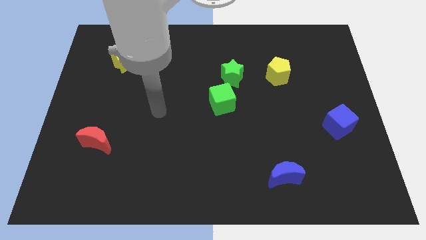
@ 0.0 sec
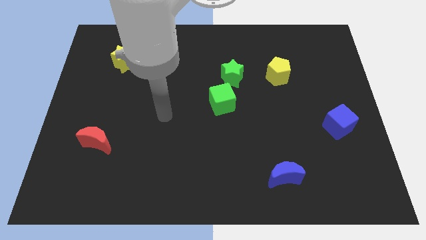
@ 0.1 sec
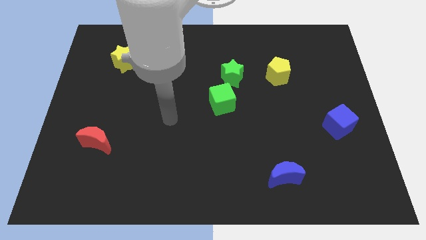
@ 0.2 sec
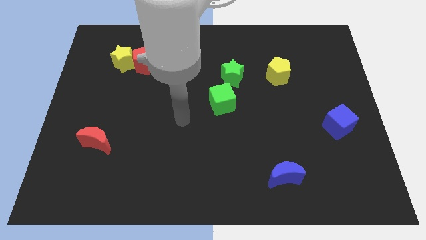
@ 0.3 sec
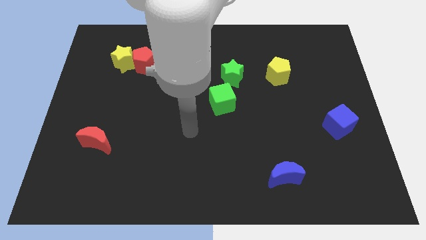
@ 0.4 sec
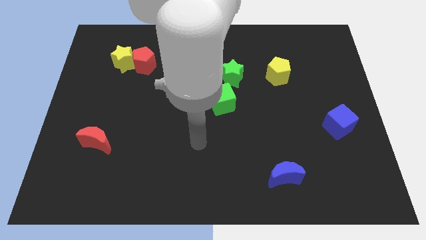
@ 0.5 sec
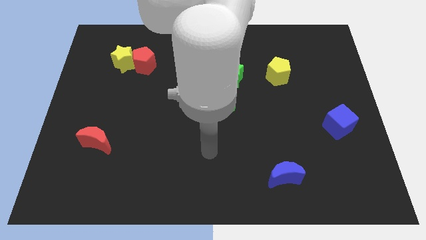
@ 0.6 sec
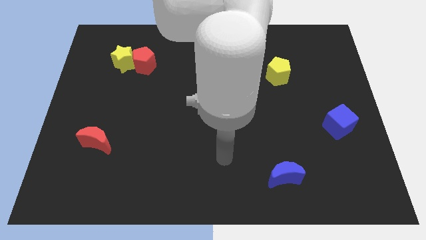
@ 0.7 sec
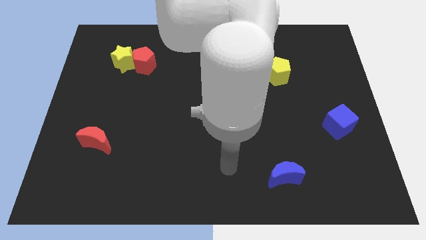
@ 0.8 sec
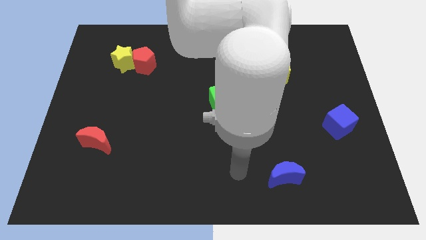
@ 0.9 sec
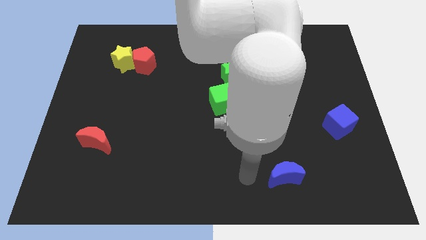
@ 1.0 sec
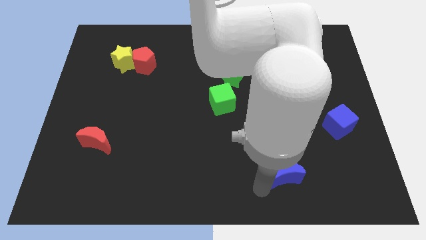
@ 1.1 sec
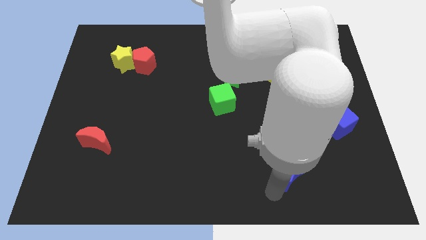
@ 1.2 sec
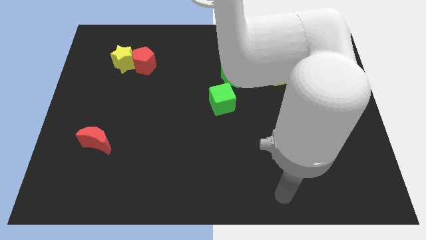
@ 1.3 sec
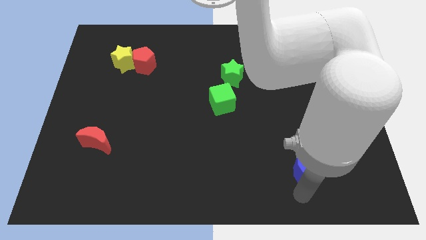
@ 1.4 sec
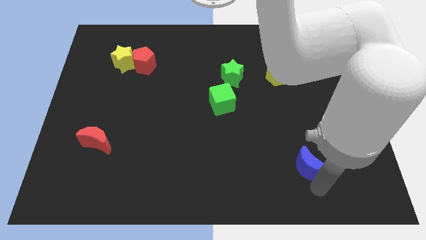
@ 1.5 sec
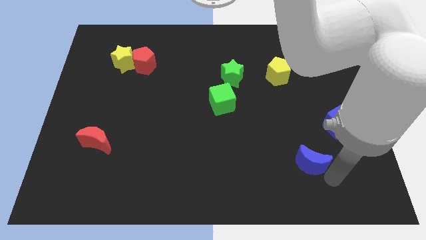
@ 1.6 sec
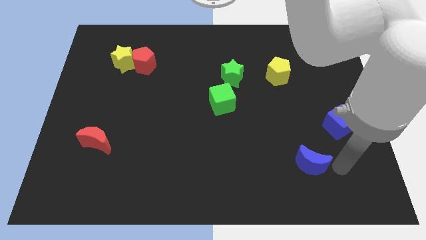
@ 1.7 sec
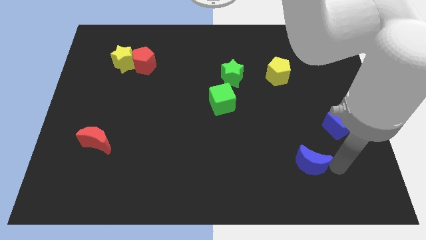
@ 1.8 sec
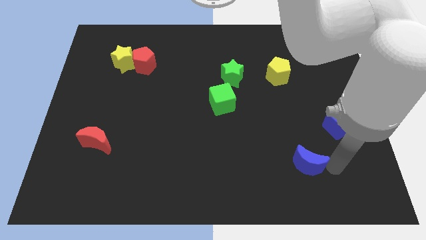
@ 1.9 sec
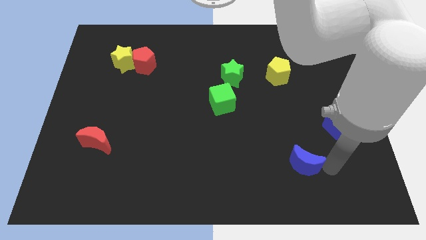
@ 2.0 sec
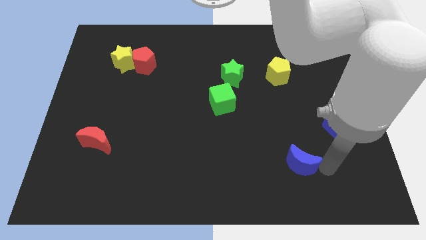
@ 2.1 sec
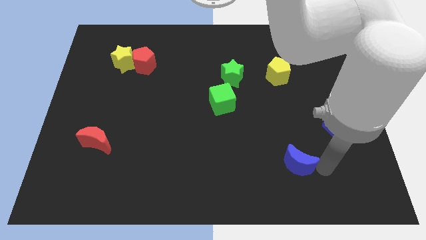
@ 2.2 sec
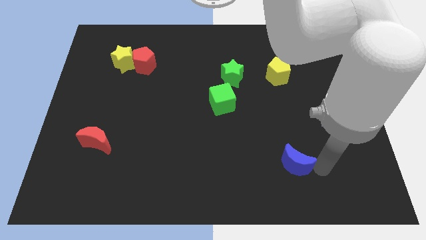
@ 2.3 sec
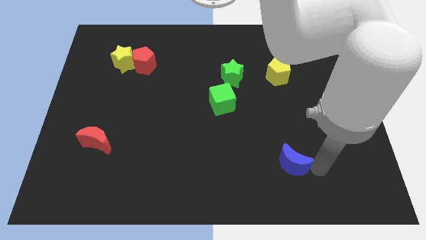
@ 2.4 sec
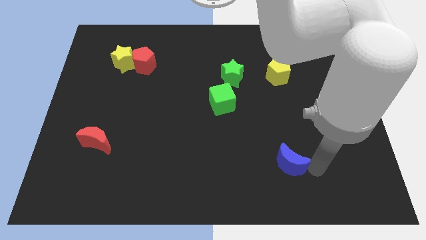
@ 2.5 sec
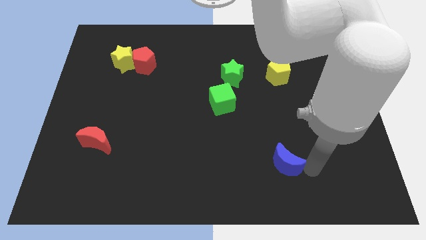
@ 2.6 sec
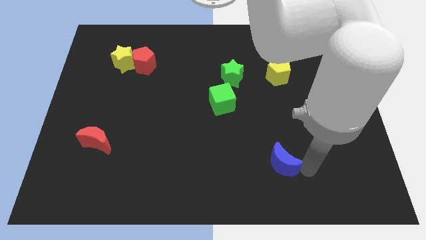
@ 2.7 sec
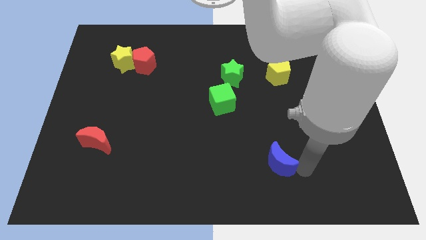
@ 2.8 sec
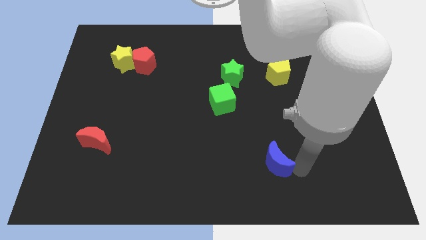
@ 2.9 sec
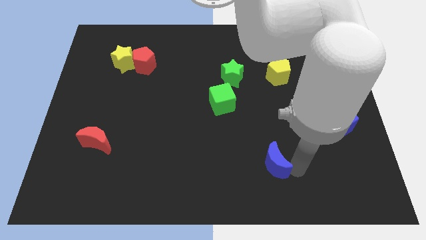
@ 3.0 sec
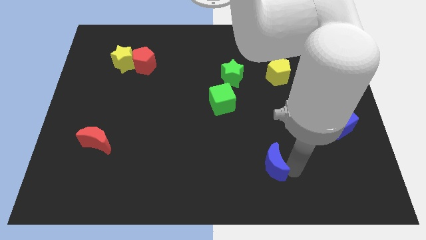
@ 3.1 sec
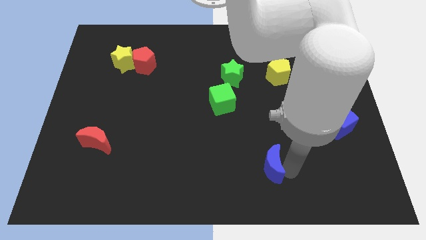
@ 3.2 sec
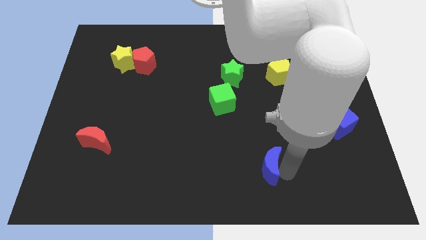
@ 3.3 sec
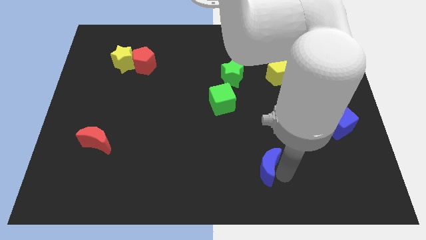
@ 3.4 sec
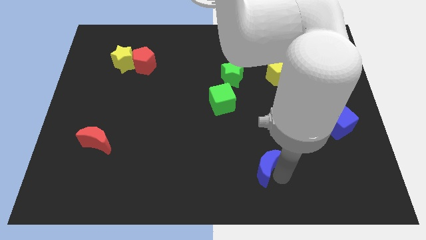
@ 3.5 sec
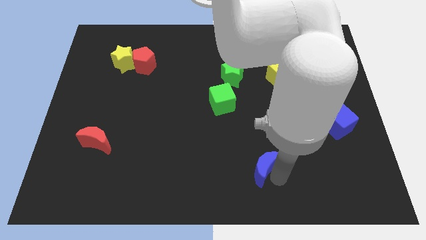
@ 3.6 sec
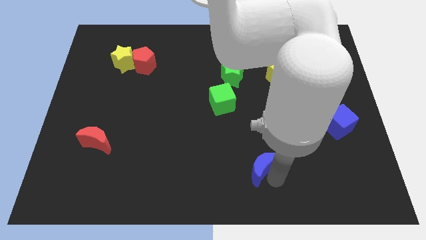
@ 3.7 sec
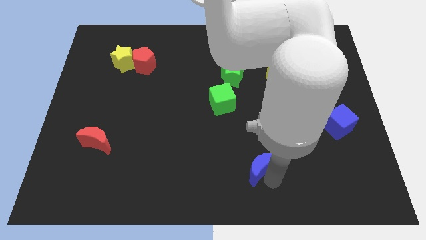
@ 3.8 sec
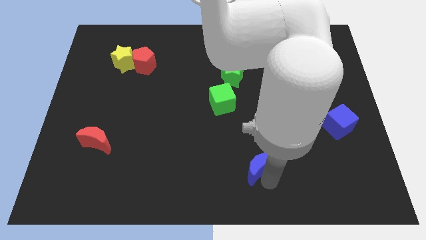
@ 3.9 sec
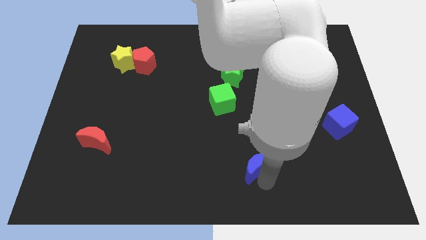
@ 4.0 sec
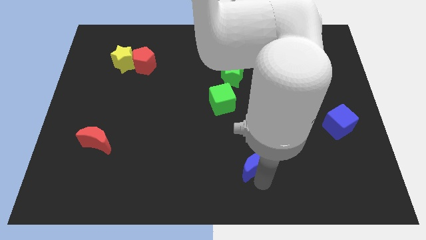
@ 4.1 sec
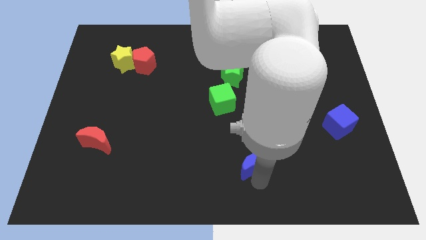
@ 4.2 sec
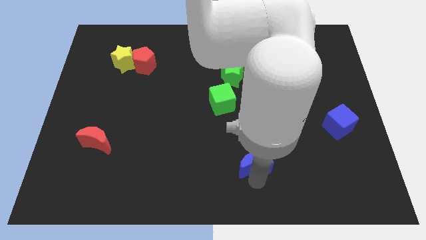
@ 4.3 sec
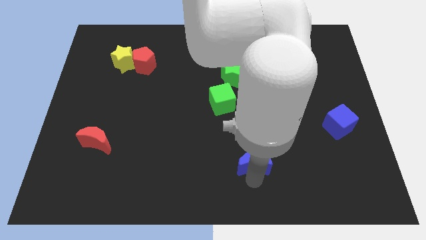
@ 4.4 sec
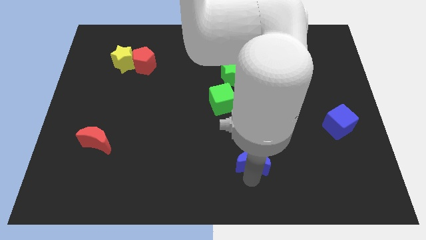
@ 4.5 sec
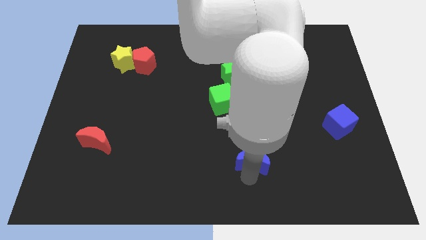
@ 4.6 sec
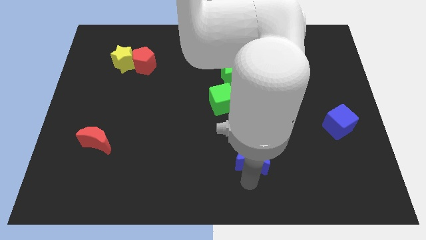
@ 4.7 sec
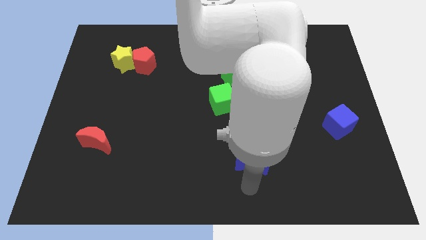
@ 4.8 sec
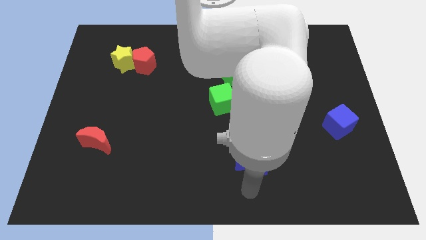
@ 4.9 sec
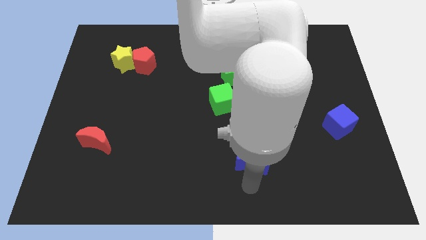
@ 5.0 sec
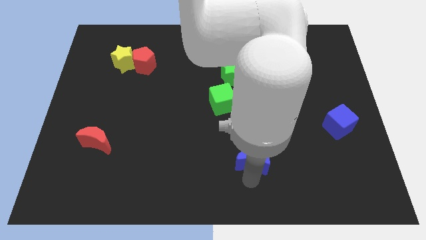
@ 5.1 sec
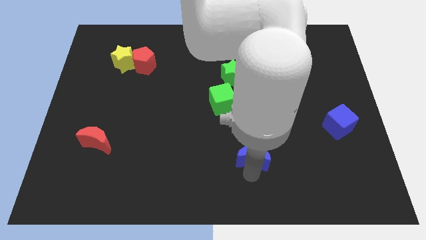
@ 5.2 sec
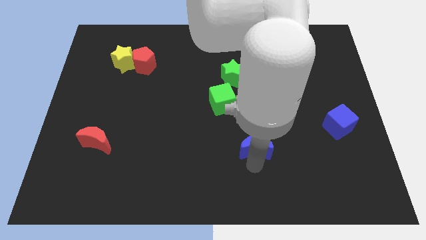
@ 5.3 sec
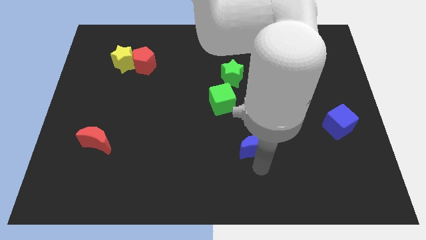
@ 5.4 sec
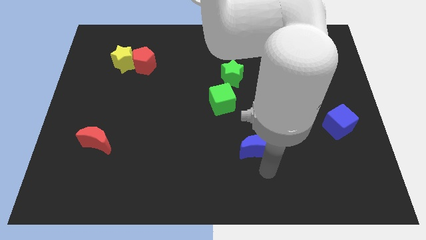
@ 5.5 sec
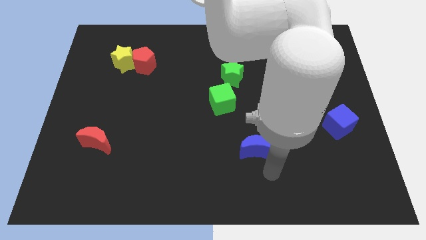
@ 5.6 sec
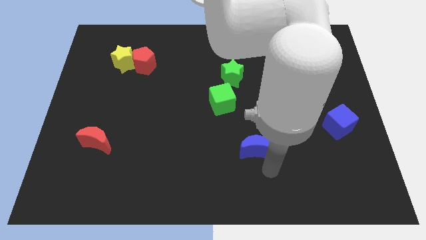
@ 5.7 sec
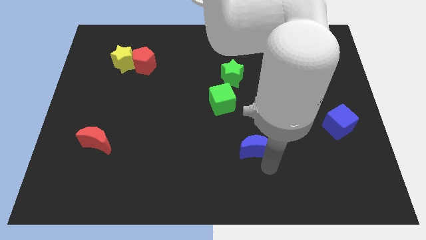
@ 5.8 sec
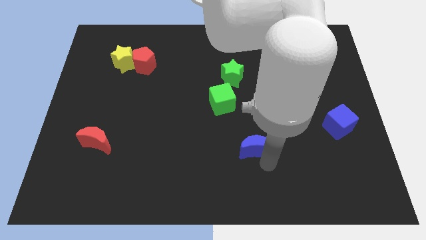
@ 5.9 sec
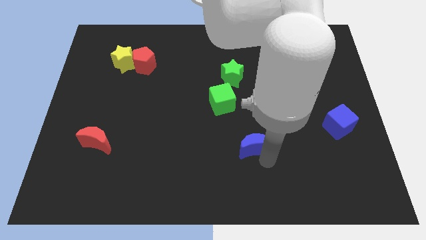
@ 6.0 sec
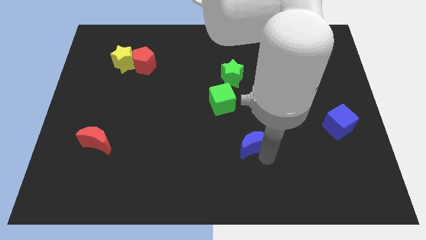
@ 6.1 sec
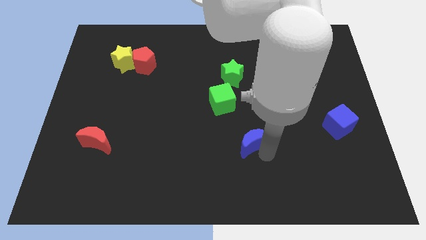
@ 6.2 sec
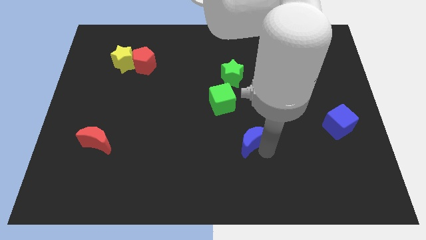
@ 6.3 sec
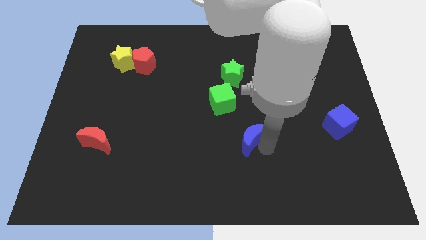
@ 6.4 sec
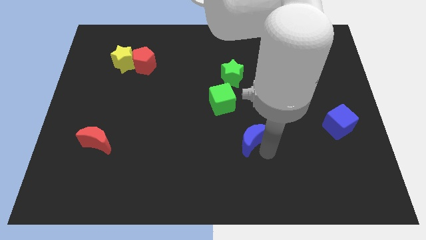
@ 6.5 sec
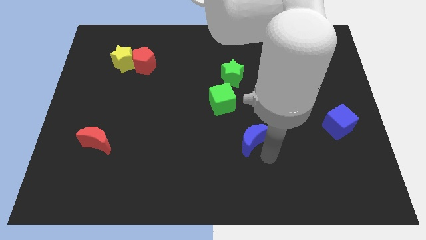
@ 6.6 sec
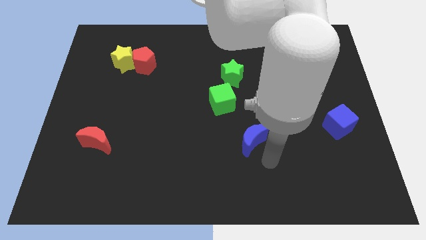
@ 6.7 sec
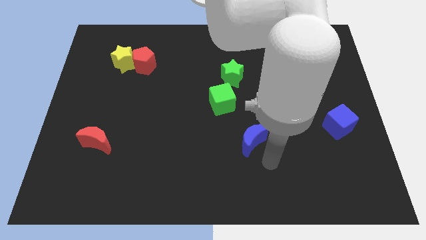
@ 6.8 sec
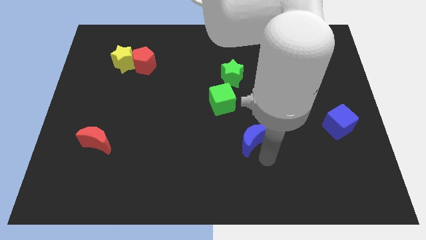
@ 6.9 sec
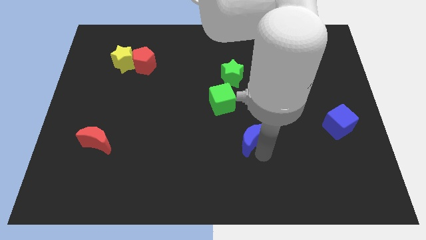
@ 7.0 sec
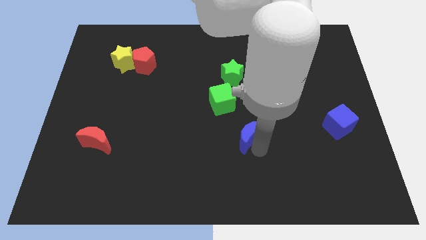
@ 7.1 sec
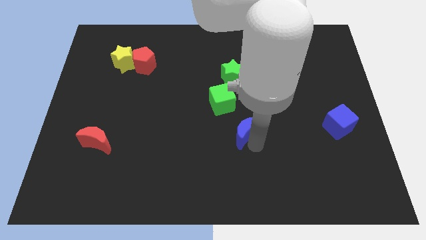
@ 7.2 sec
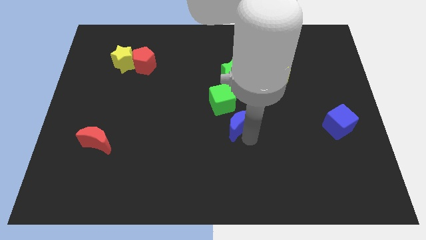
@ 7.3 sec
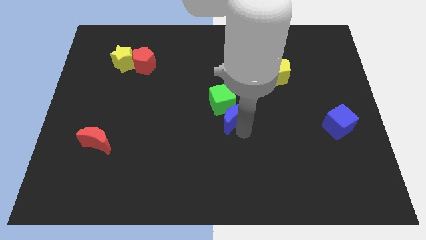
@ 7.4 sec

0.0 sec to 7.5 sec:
move the blue moon to the green cube
